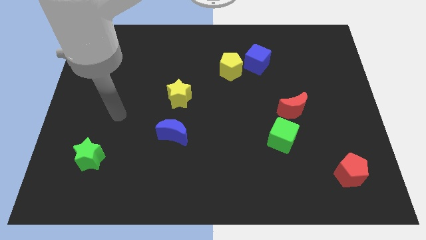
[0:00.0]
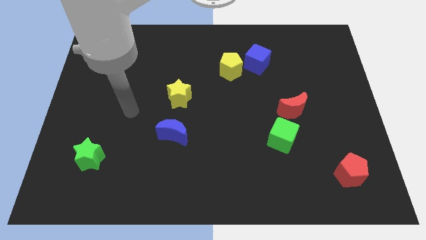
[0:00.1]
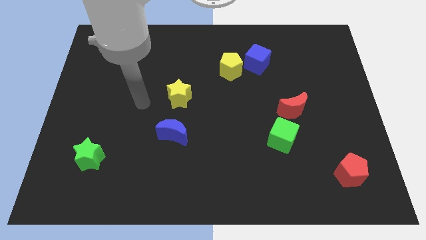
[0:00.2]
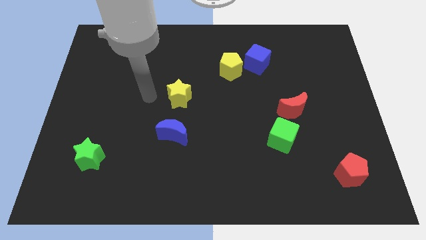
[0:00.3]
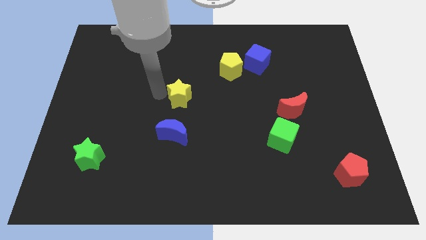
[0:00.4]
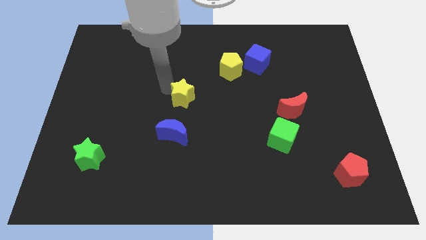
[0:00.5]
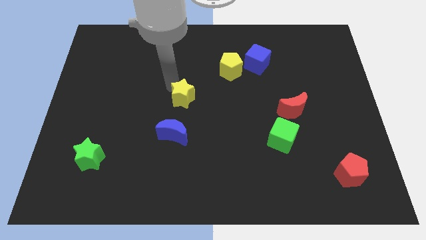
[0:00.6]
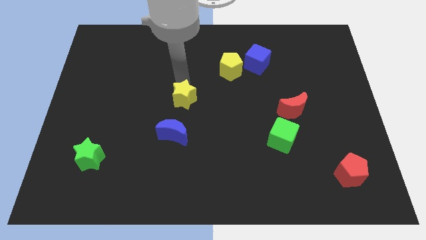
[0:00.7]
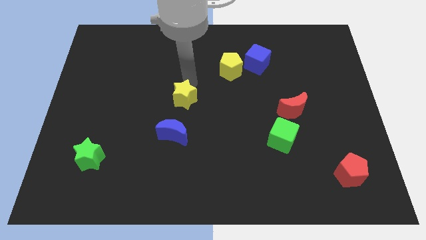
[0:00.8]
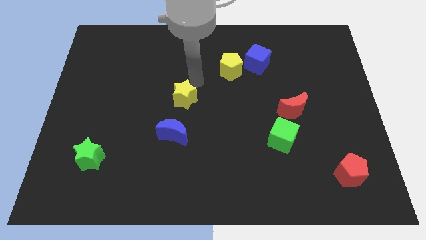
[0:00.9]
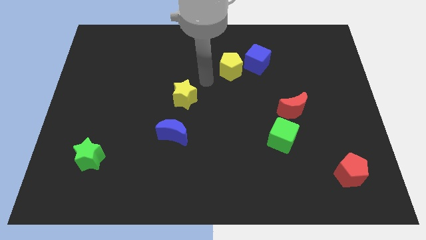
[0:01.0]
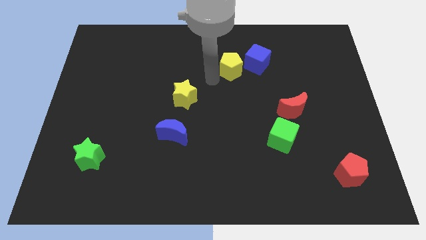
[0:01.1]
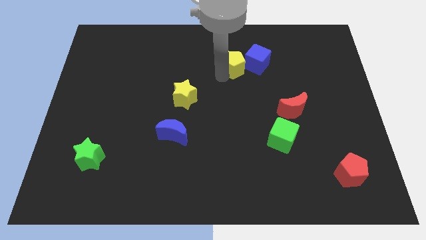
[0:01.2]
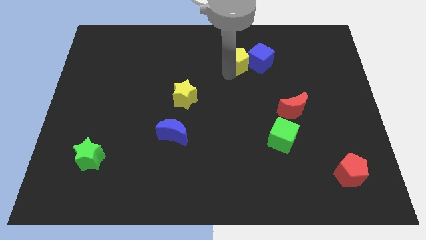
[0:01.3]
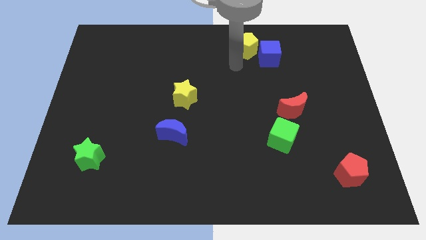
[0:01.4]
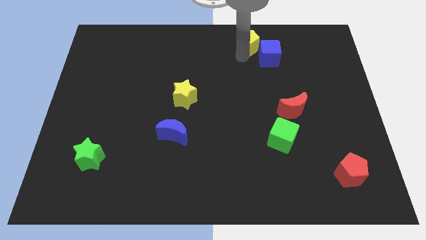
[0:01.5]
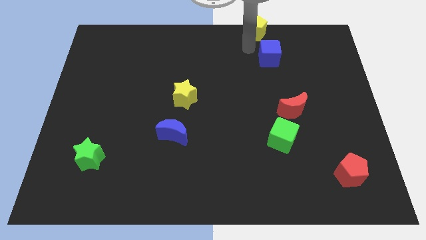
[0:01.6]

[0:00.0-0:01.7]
separate the blue cube from the yellow pentagon

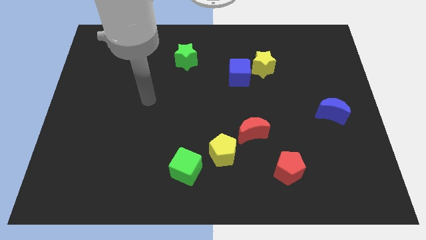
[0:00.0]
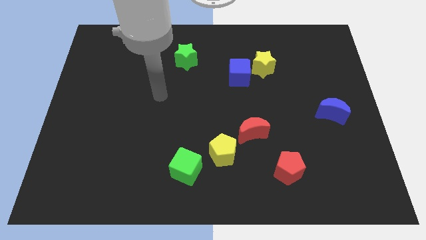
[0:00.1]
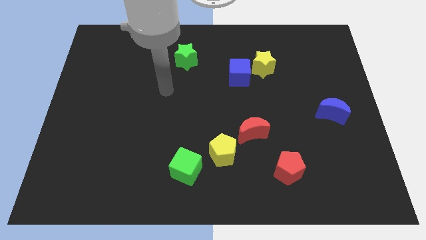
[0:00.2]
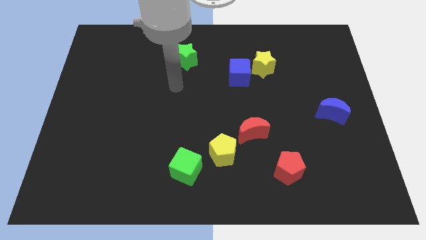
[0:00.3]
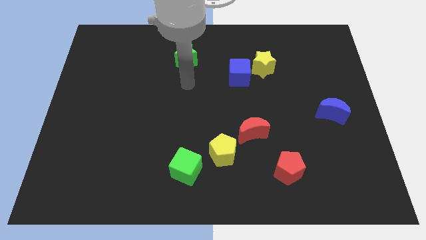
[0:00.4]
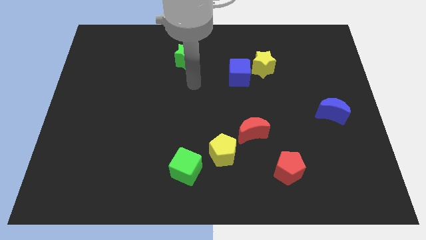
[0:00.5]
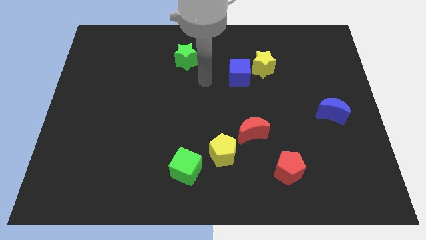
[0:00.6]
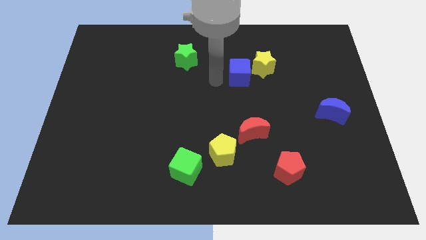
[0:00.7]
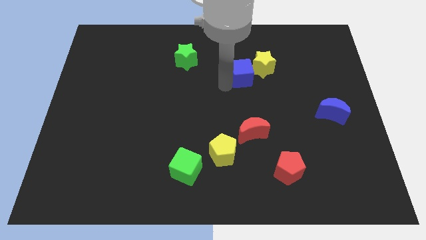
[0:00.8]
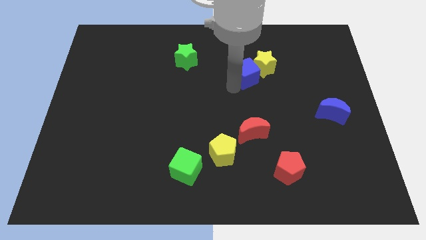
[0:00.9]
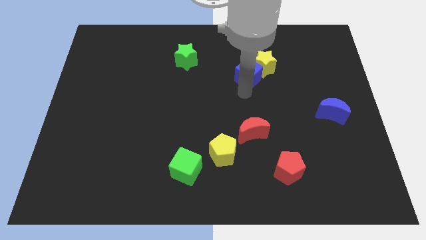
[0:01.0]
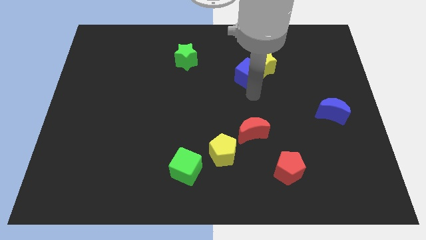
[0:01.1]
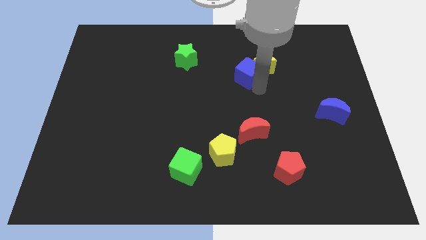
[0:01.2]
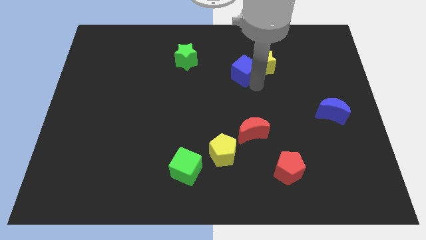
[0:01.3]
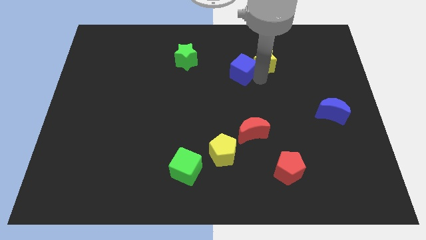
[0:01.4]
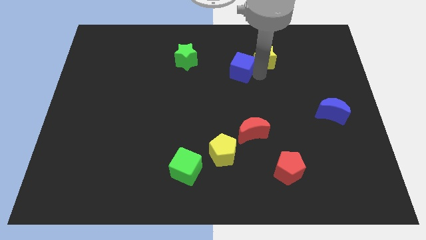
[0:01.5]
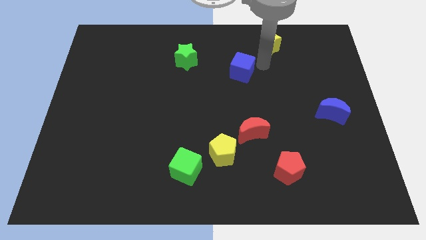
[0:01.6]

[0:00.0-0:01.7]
pull the blue cube apart from the yellow star

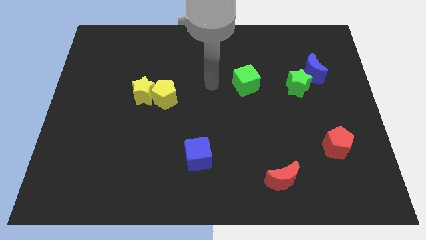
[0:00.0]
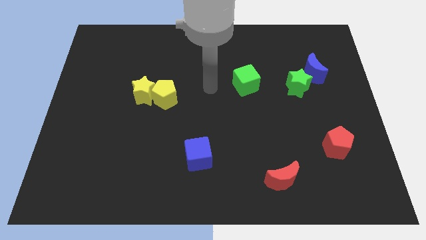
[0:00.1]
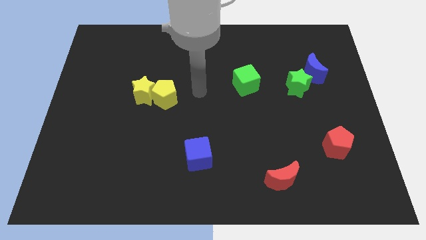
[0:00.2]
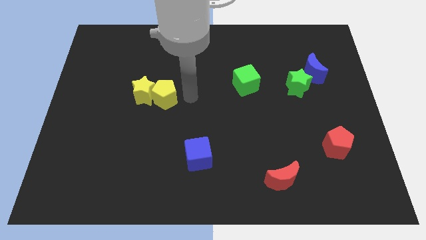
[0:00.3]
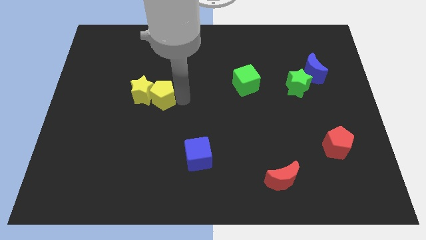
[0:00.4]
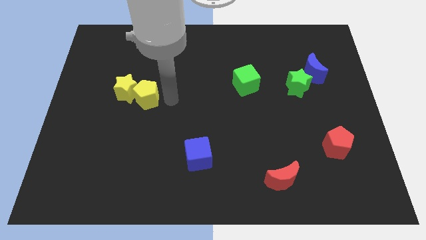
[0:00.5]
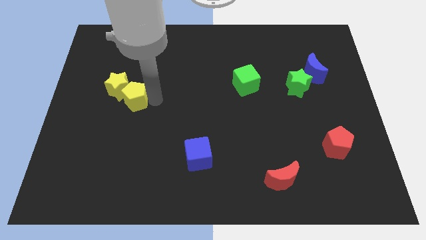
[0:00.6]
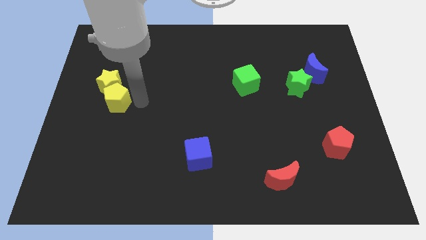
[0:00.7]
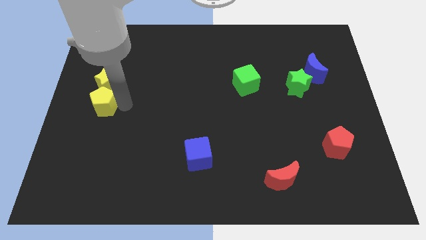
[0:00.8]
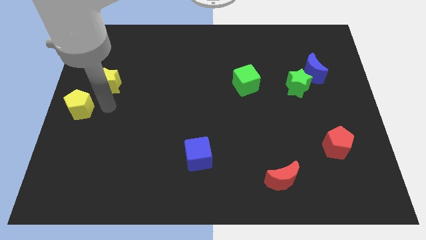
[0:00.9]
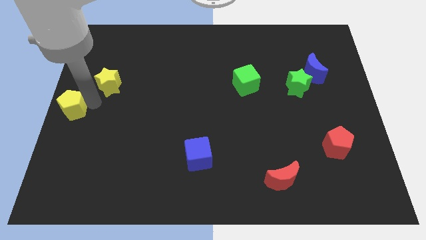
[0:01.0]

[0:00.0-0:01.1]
separate the yellow star from the yellow pentagon

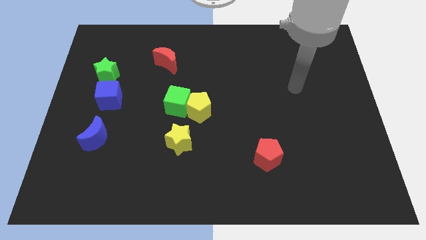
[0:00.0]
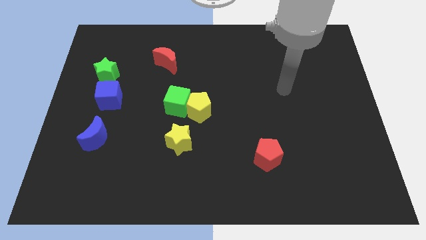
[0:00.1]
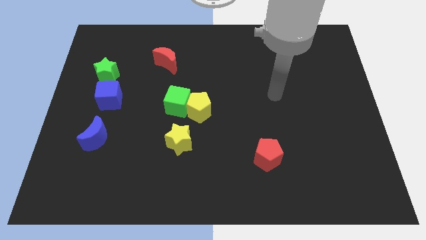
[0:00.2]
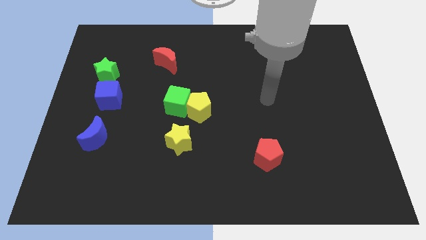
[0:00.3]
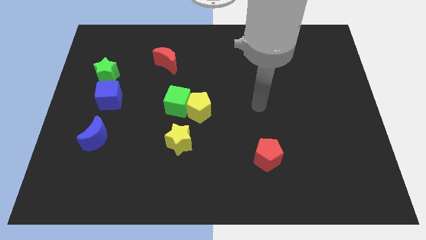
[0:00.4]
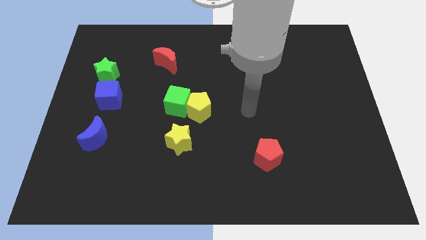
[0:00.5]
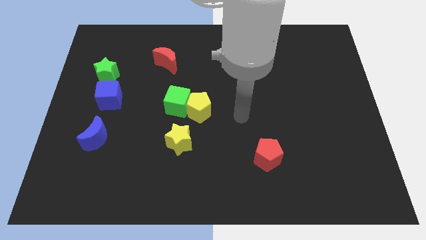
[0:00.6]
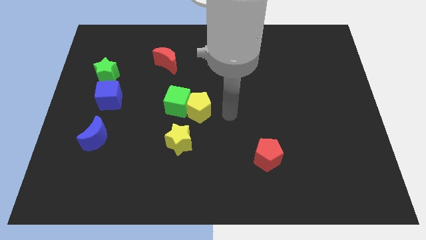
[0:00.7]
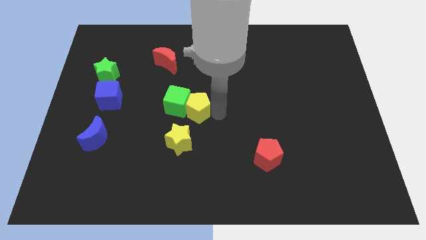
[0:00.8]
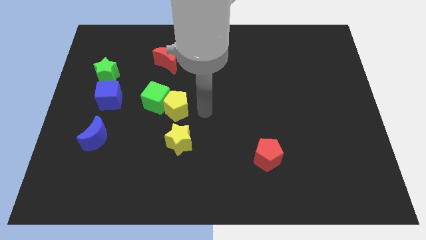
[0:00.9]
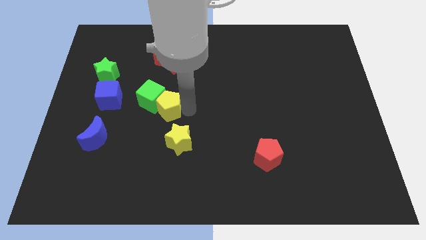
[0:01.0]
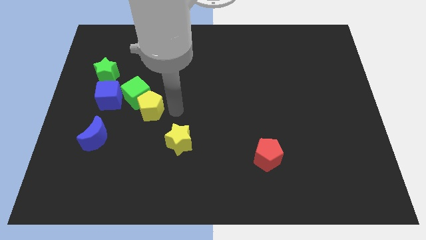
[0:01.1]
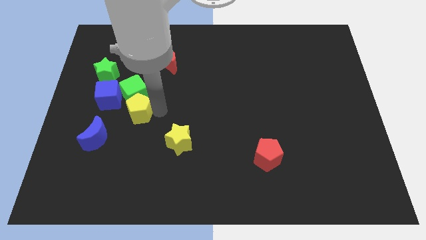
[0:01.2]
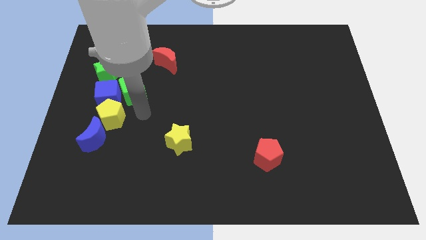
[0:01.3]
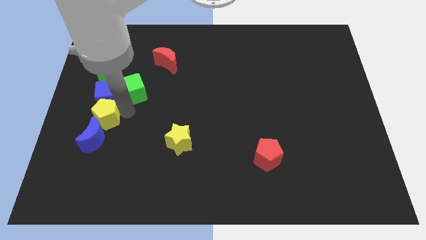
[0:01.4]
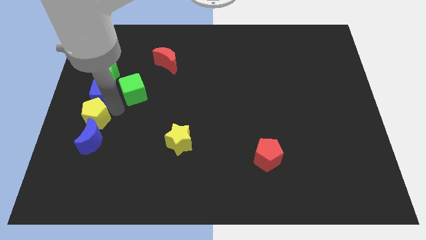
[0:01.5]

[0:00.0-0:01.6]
separate the green cube from the yellow pentagon

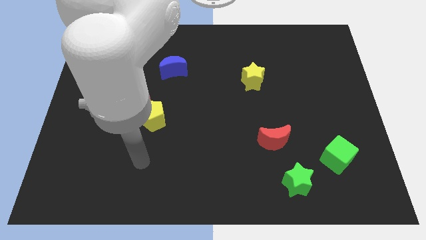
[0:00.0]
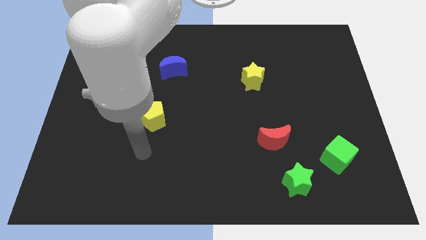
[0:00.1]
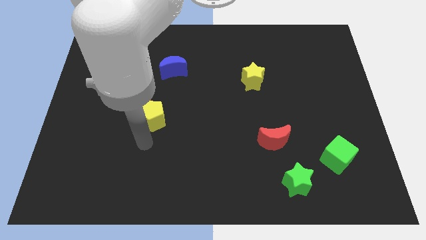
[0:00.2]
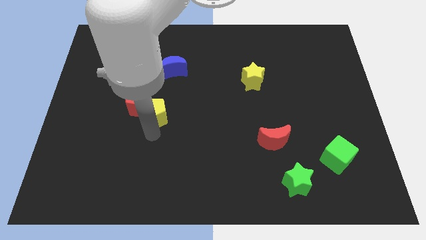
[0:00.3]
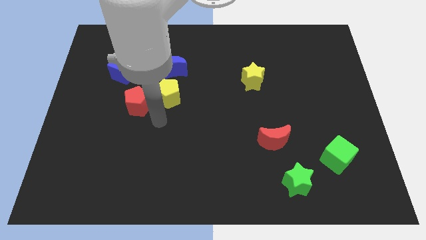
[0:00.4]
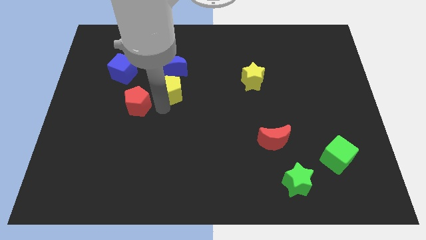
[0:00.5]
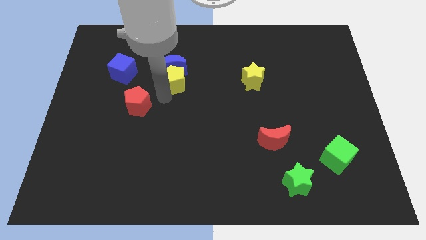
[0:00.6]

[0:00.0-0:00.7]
separate the red pentagon from the yellow pentagon

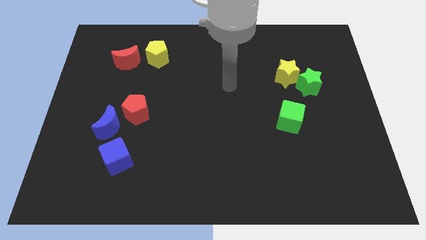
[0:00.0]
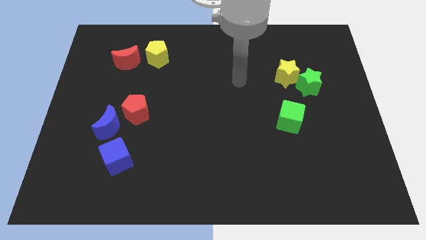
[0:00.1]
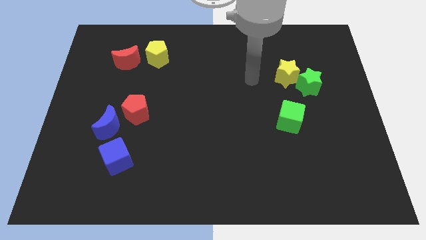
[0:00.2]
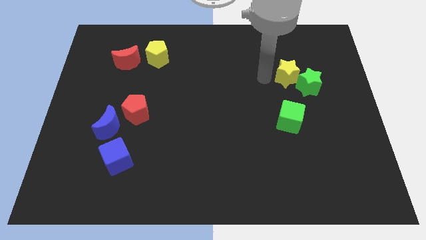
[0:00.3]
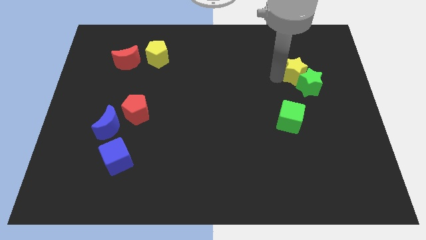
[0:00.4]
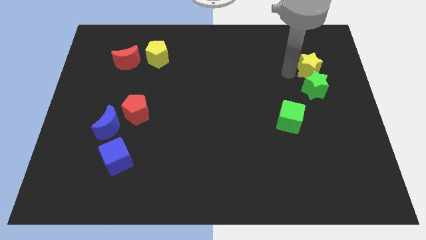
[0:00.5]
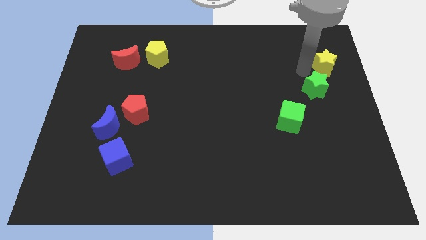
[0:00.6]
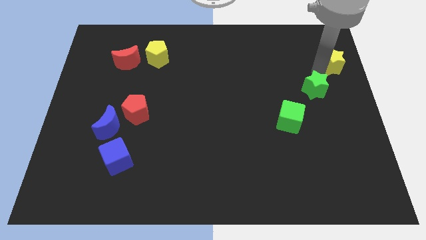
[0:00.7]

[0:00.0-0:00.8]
move the green star away from the yellow star

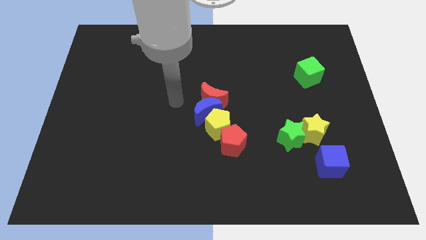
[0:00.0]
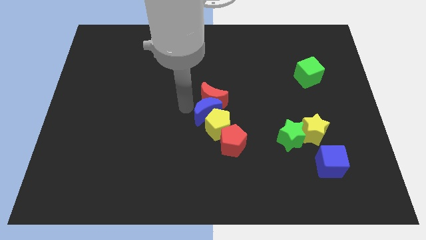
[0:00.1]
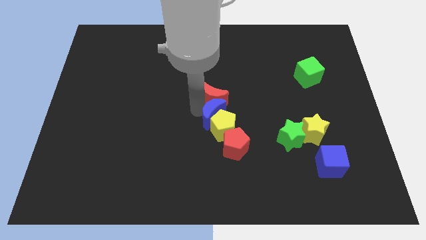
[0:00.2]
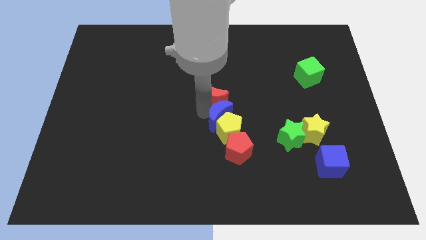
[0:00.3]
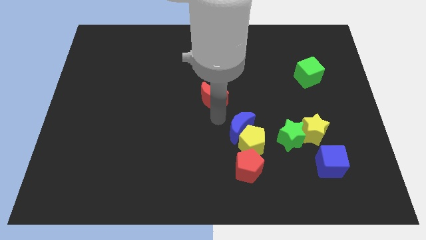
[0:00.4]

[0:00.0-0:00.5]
pull the red moon apart from the blue moon and yellow pentagon

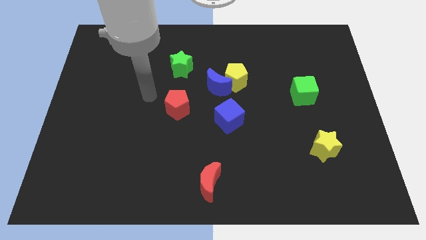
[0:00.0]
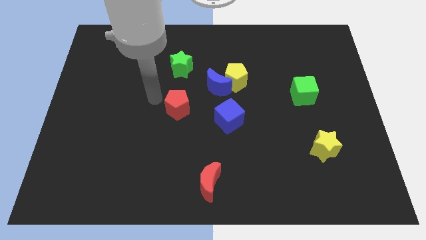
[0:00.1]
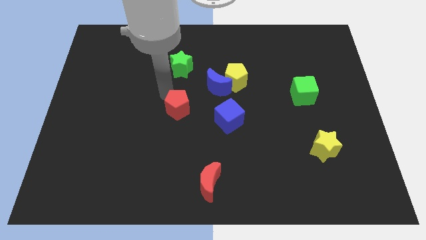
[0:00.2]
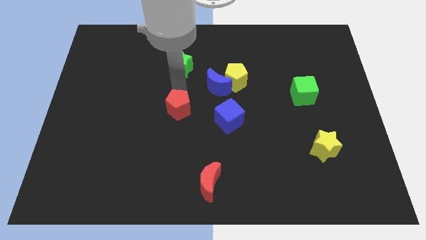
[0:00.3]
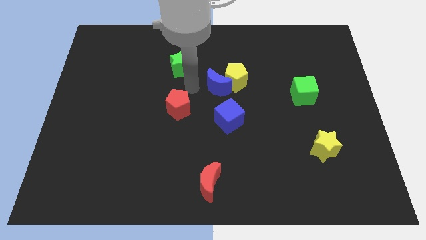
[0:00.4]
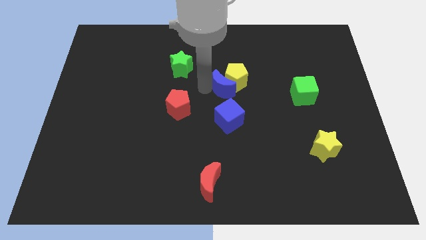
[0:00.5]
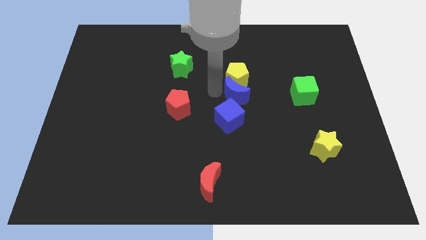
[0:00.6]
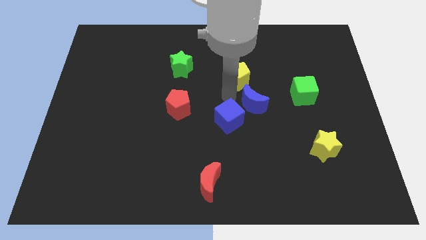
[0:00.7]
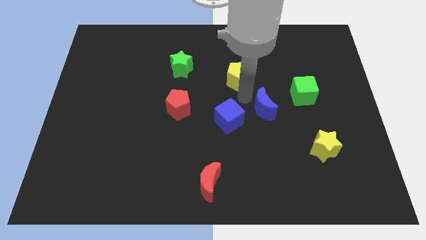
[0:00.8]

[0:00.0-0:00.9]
pull the yellow pentagon apart from the blue moon

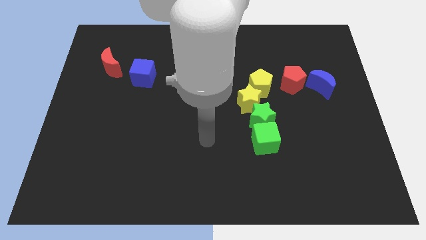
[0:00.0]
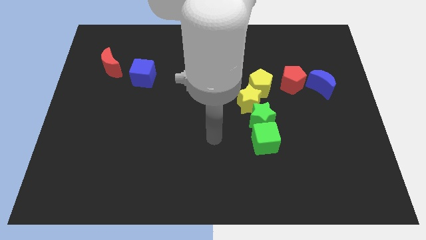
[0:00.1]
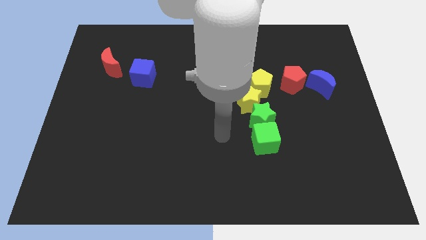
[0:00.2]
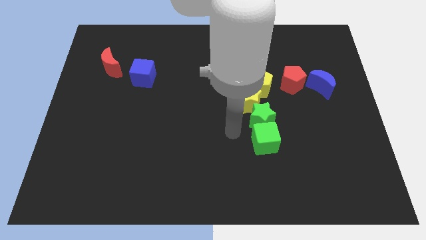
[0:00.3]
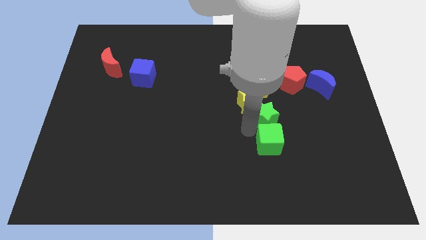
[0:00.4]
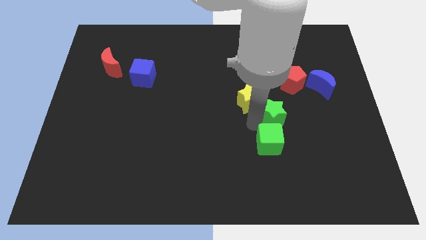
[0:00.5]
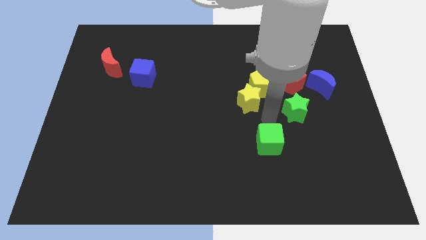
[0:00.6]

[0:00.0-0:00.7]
separate the green cube from the green star
